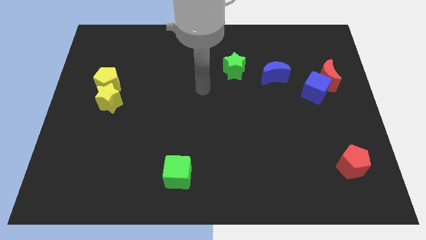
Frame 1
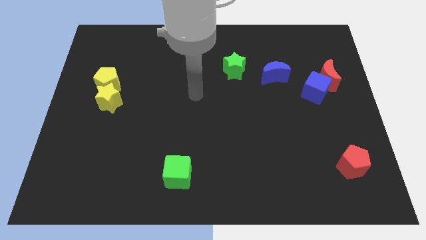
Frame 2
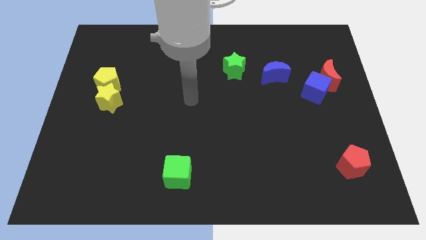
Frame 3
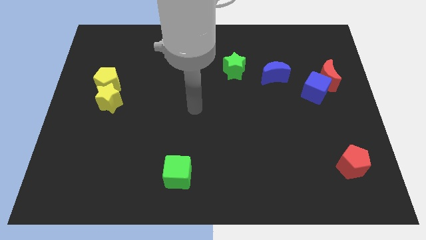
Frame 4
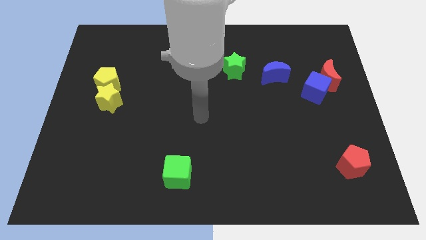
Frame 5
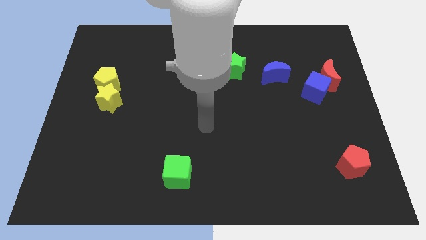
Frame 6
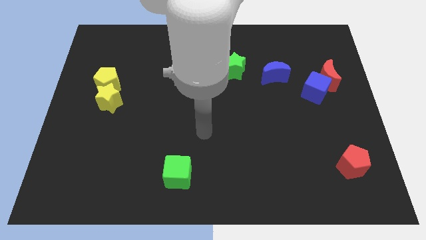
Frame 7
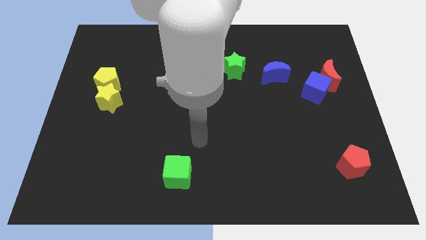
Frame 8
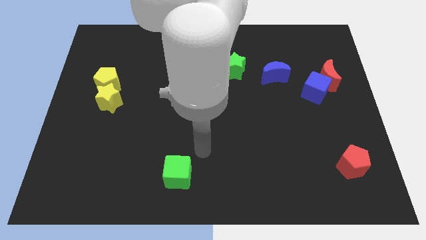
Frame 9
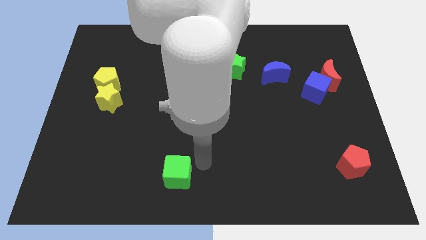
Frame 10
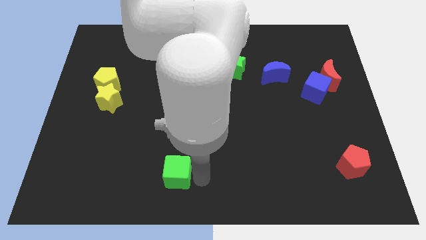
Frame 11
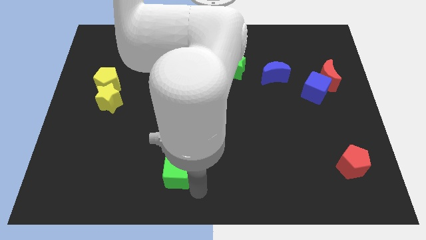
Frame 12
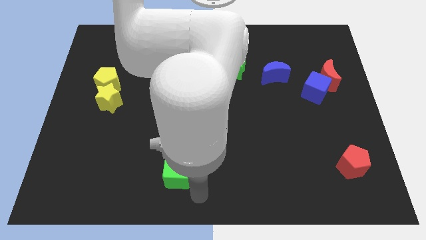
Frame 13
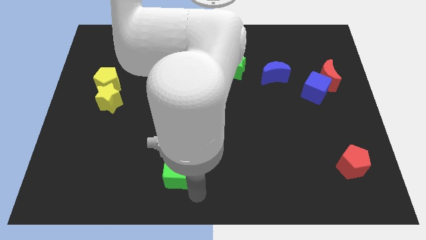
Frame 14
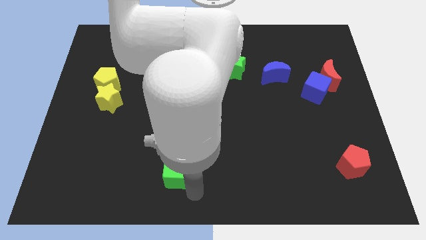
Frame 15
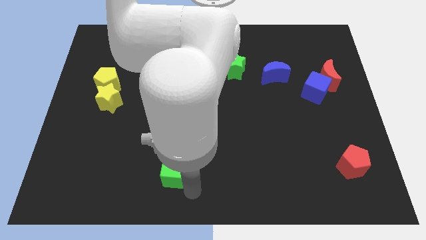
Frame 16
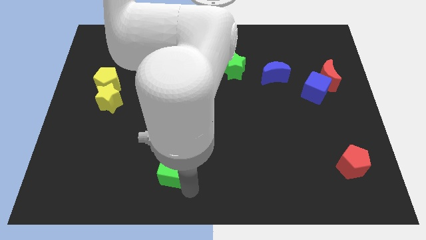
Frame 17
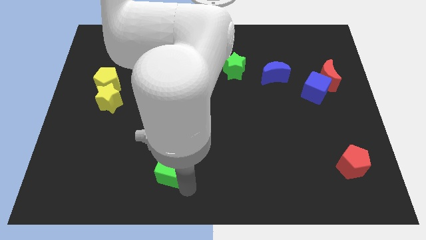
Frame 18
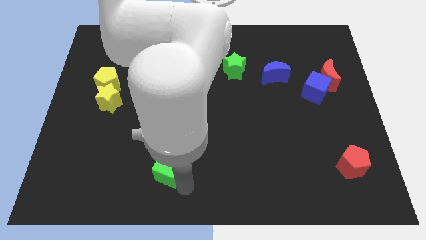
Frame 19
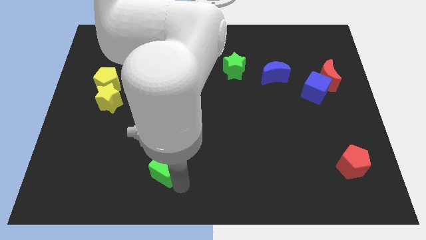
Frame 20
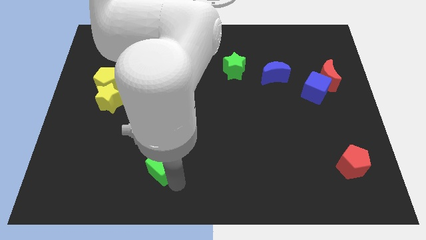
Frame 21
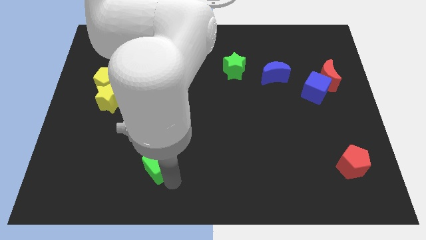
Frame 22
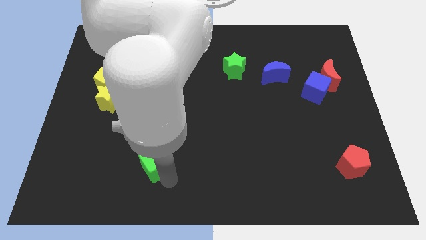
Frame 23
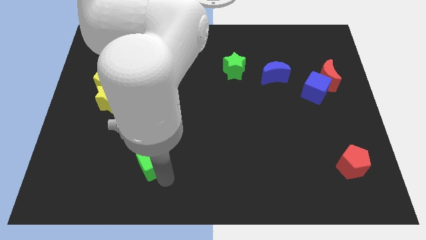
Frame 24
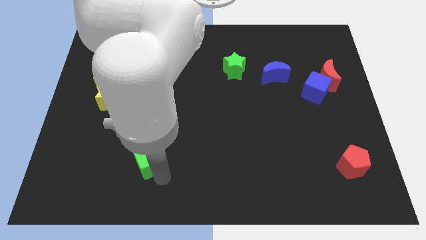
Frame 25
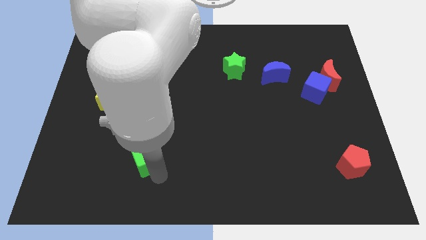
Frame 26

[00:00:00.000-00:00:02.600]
push the green cube somewhat diagonally upwards and left

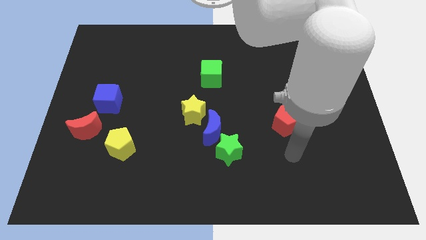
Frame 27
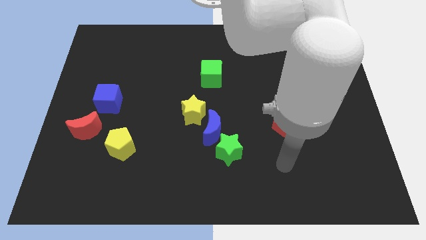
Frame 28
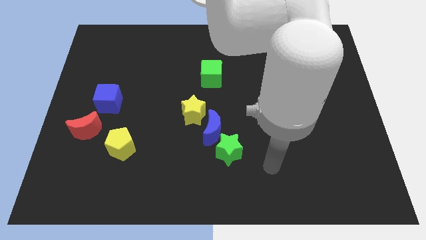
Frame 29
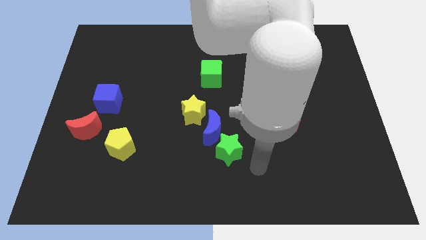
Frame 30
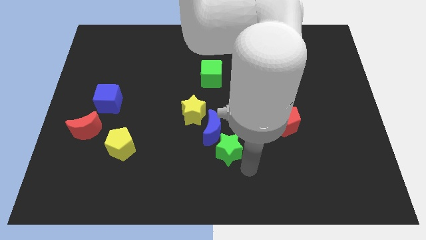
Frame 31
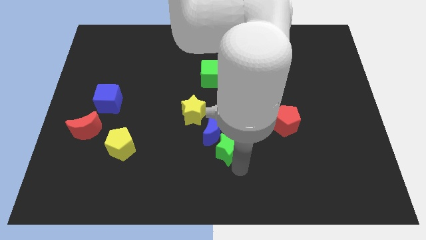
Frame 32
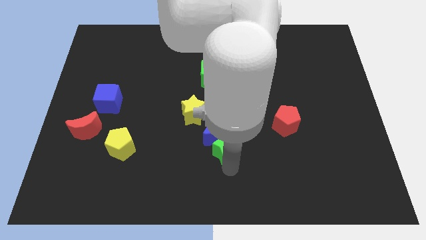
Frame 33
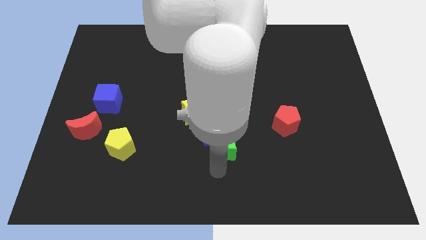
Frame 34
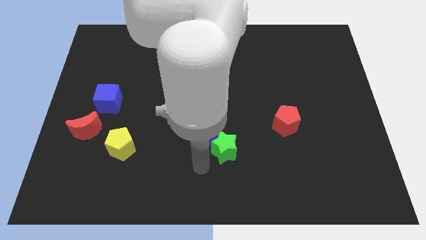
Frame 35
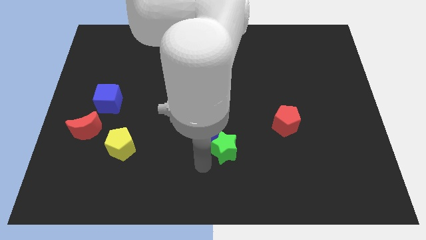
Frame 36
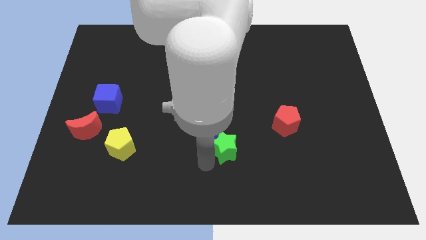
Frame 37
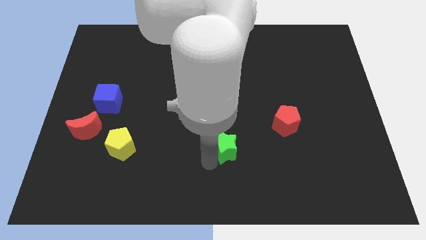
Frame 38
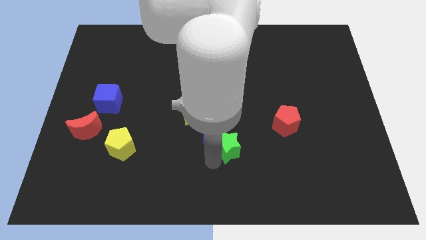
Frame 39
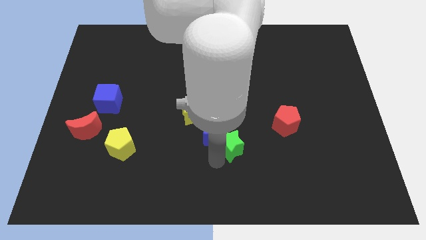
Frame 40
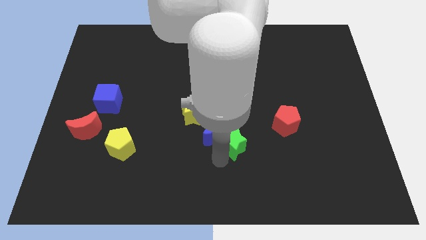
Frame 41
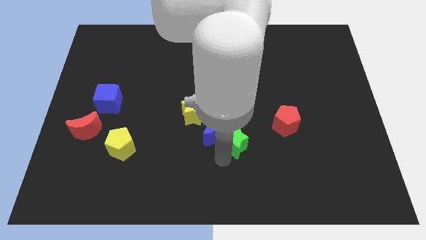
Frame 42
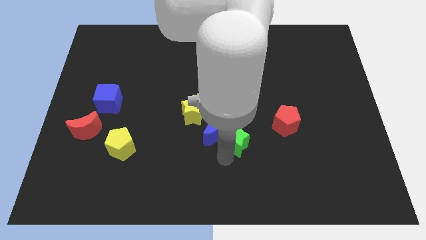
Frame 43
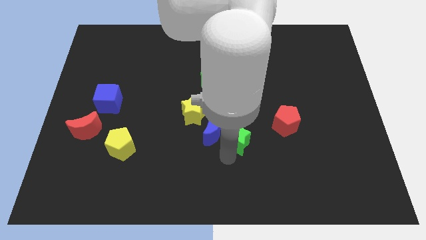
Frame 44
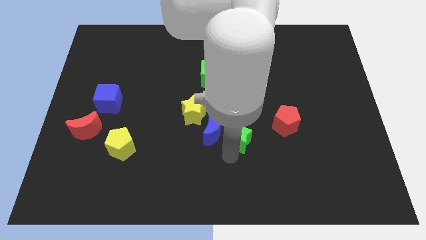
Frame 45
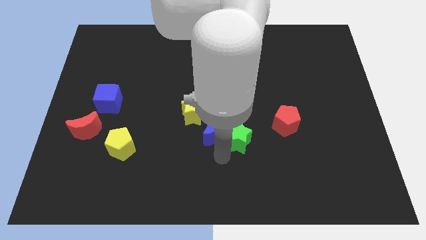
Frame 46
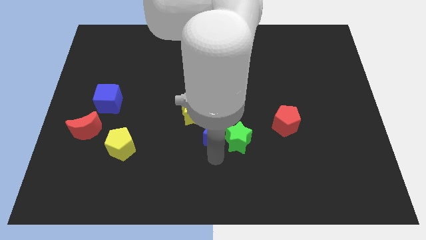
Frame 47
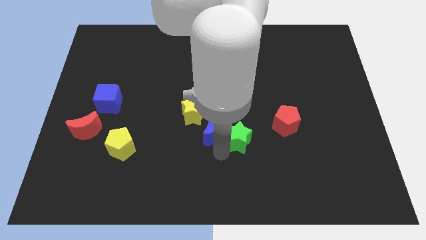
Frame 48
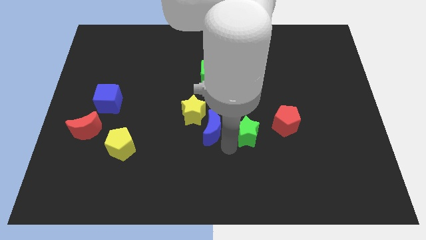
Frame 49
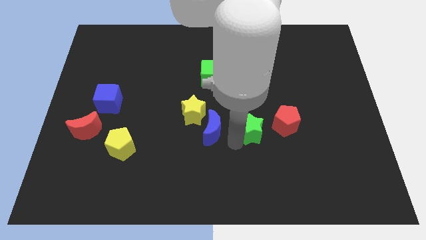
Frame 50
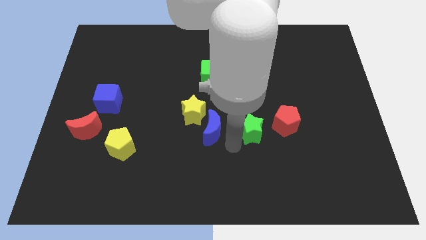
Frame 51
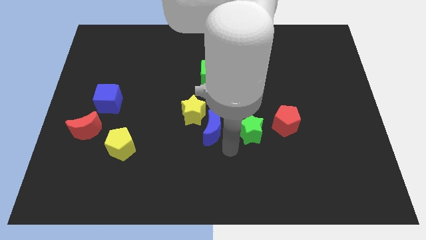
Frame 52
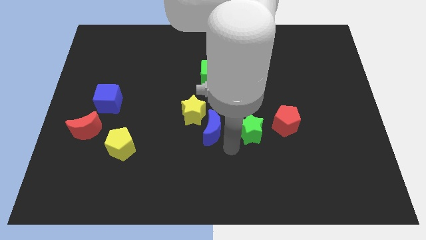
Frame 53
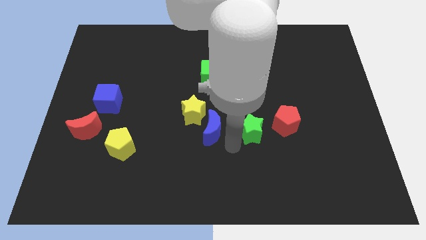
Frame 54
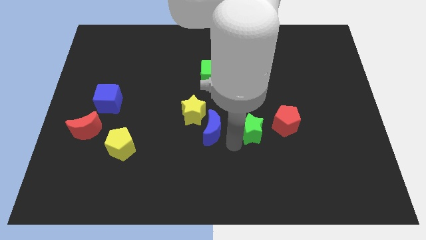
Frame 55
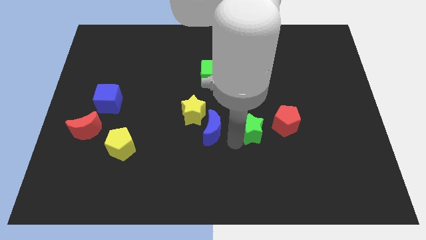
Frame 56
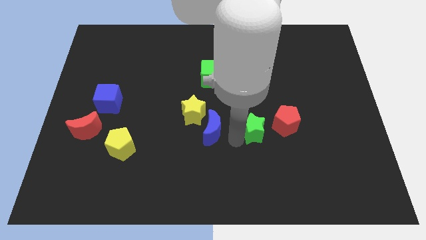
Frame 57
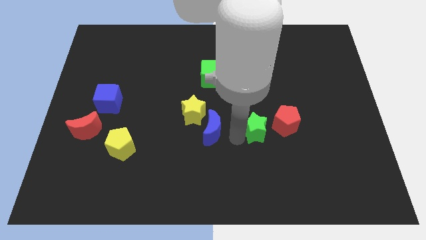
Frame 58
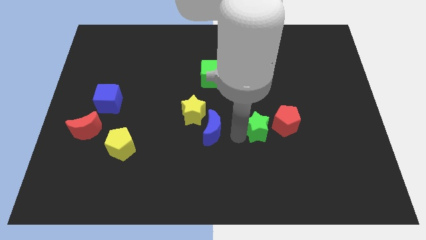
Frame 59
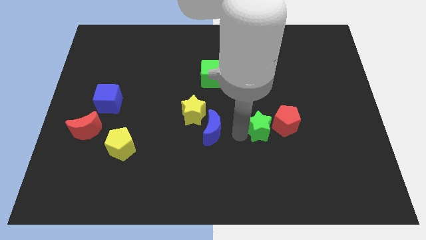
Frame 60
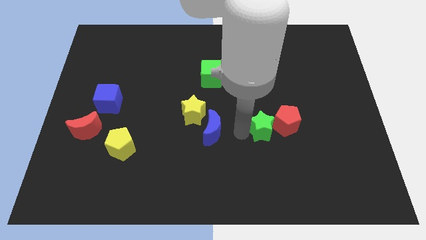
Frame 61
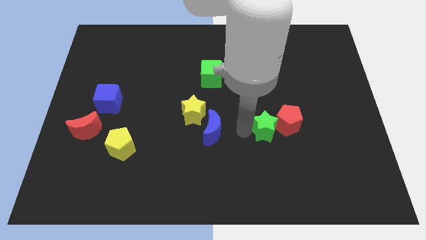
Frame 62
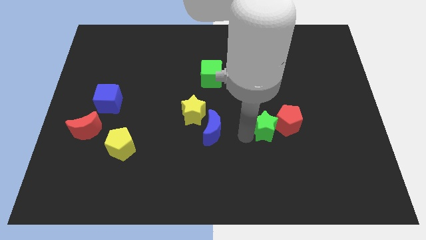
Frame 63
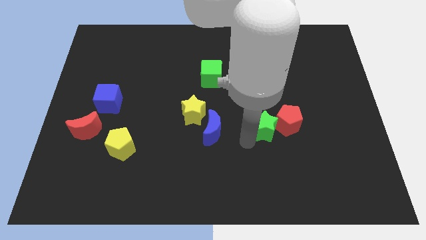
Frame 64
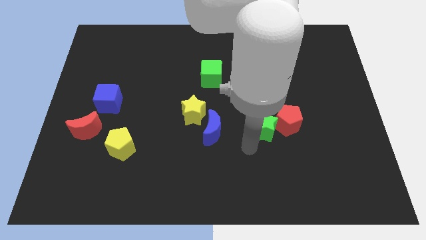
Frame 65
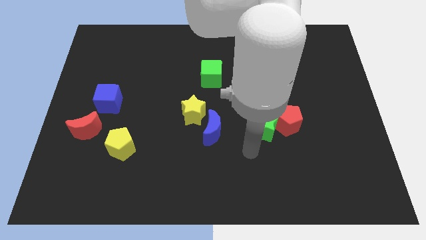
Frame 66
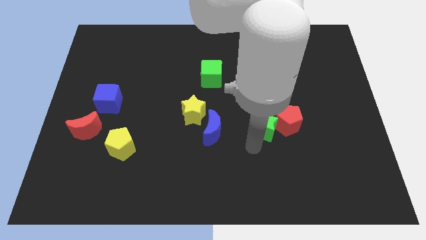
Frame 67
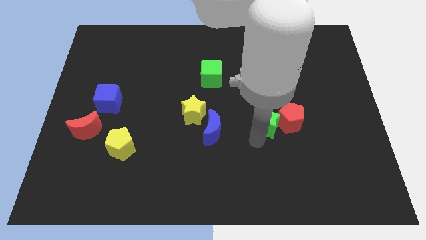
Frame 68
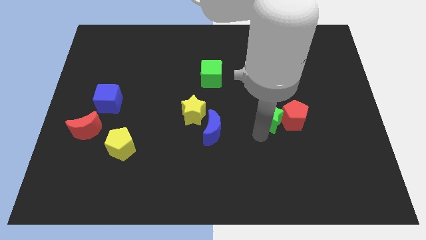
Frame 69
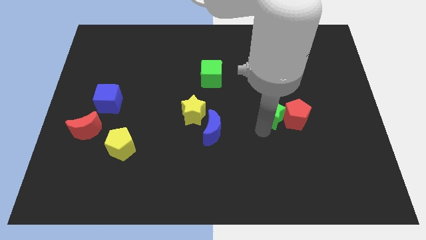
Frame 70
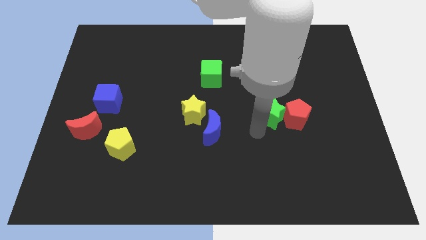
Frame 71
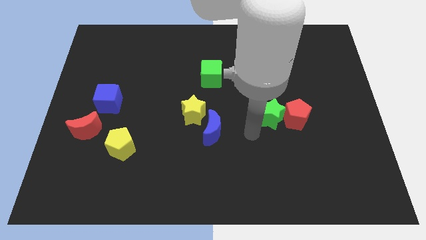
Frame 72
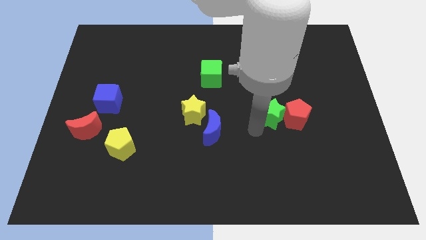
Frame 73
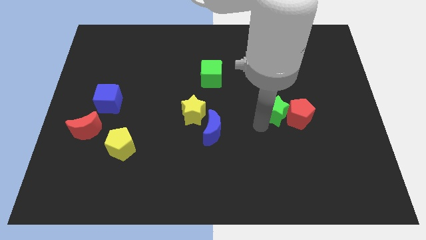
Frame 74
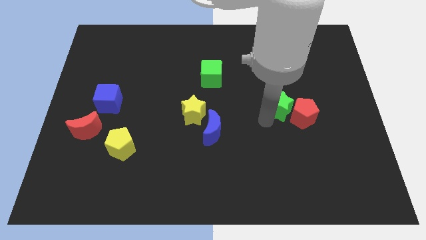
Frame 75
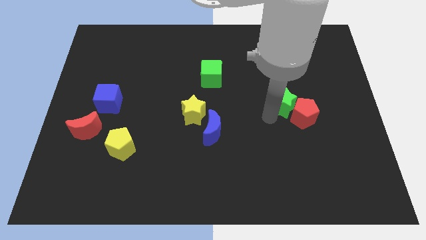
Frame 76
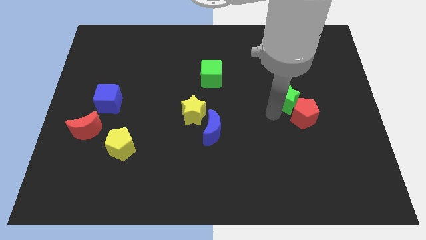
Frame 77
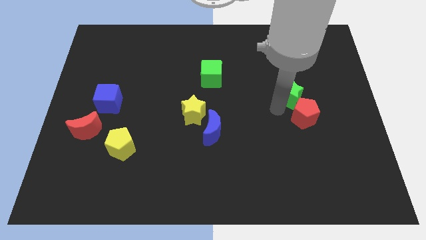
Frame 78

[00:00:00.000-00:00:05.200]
move the green star upwards and right
